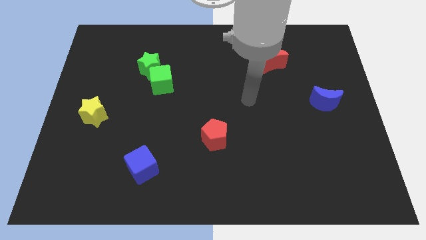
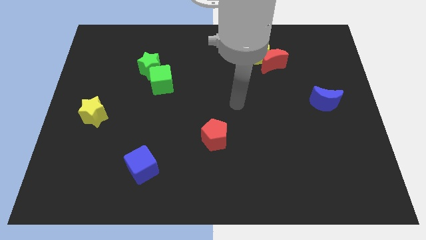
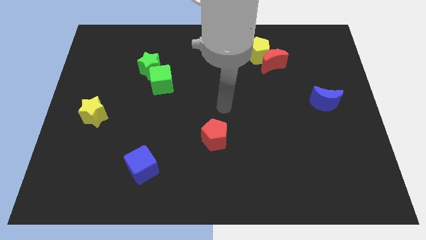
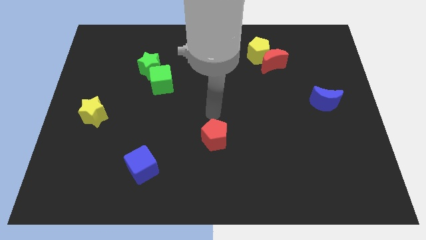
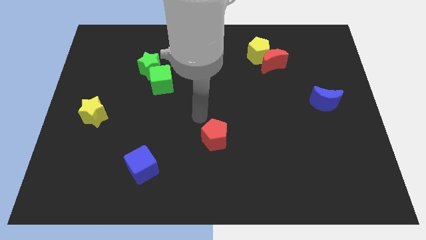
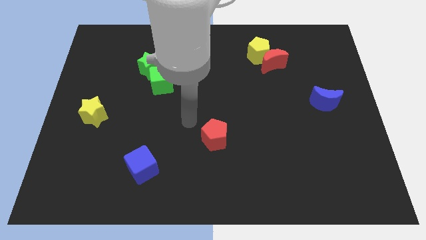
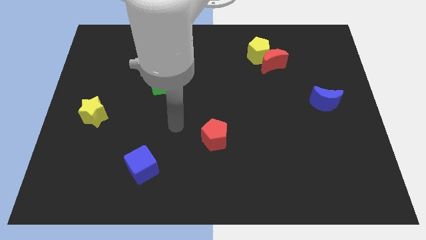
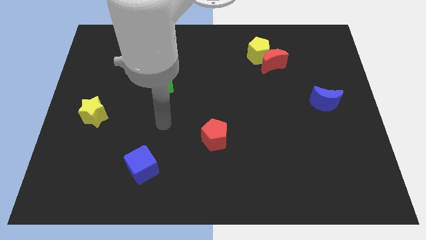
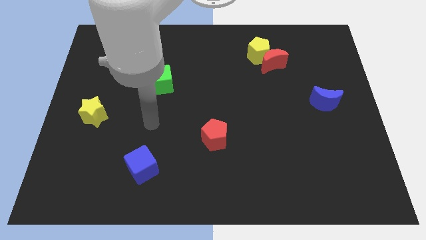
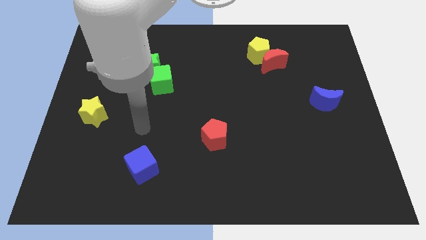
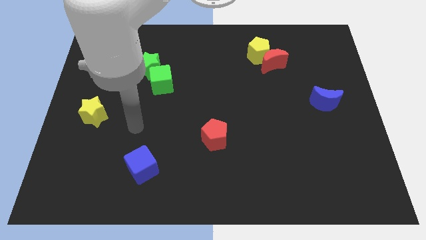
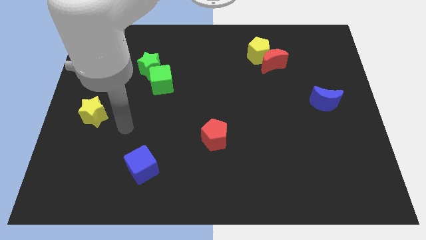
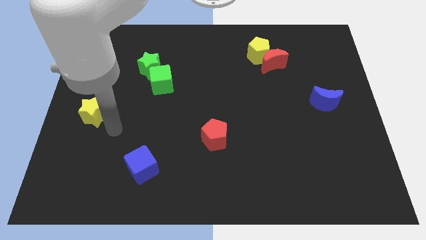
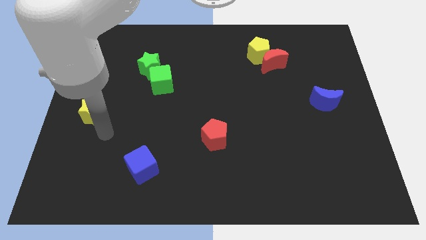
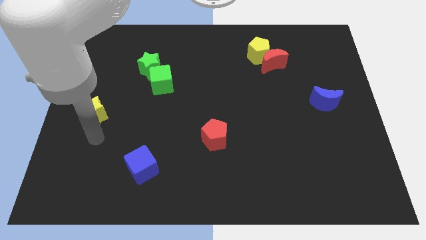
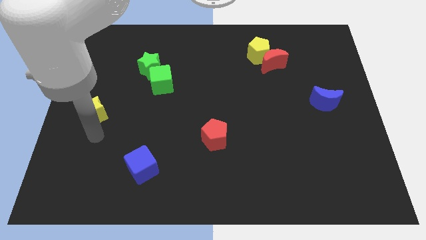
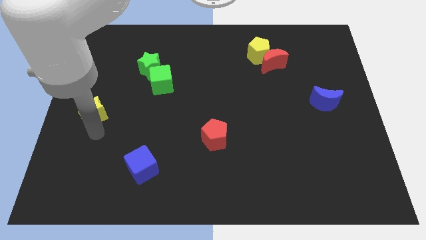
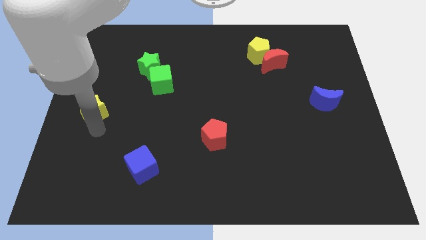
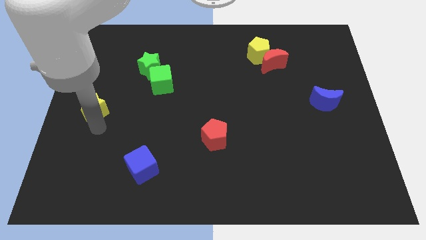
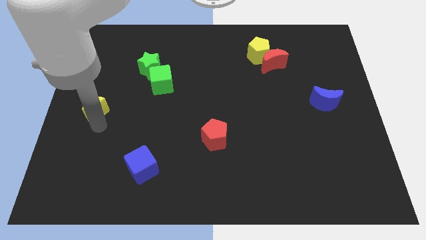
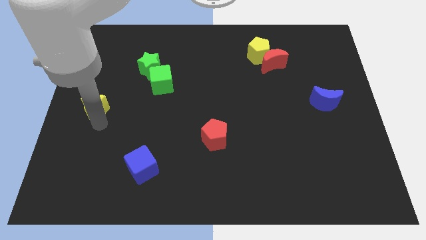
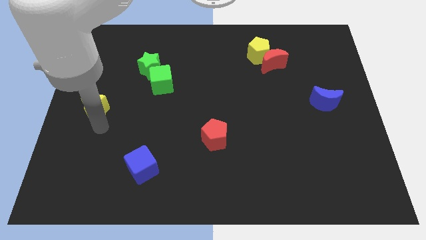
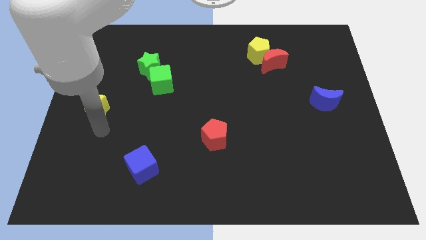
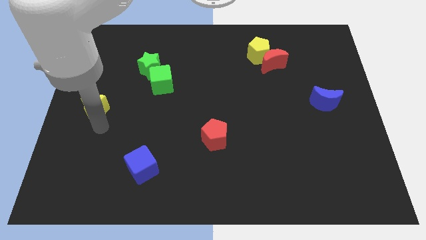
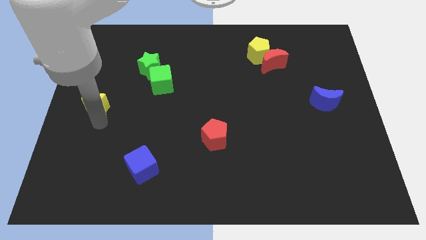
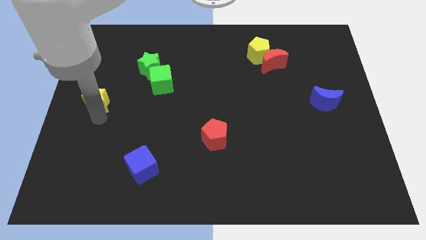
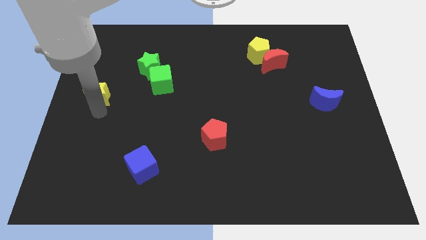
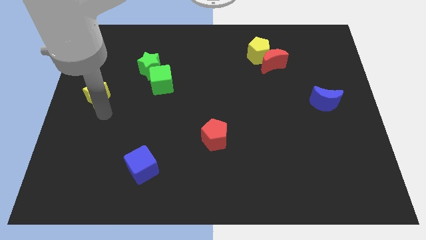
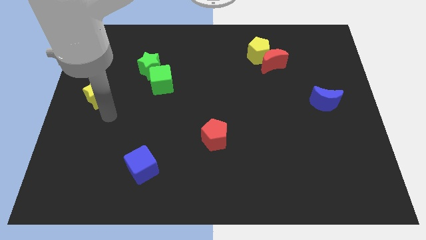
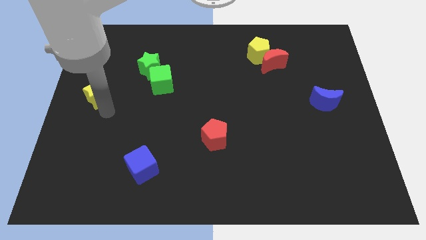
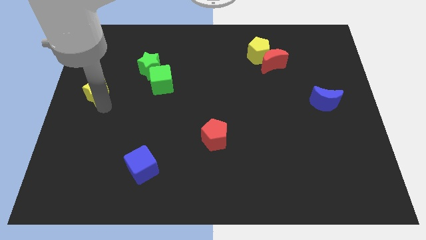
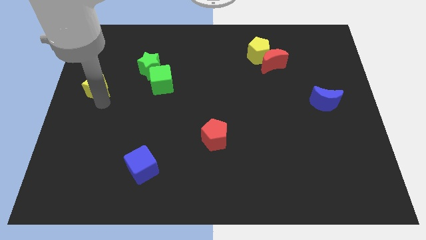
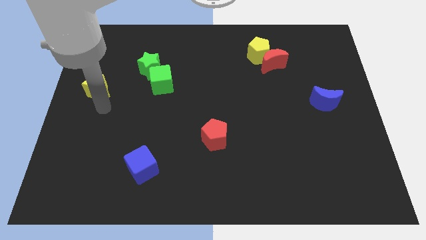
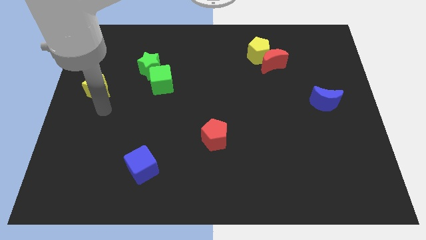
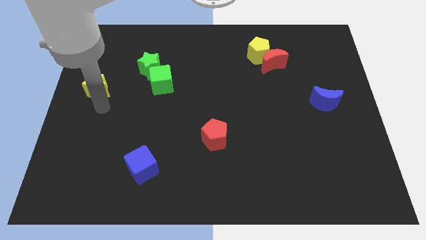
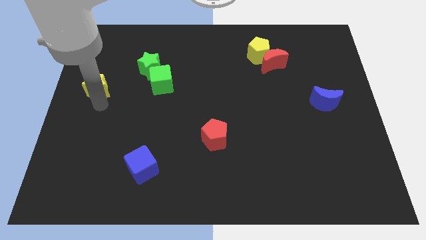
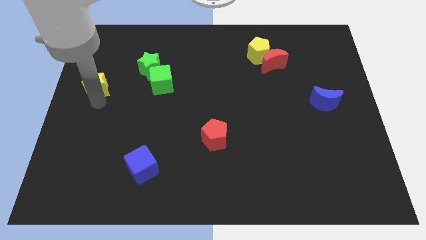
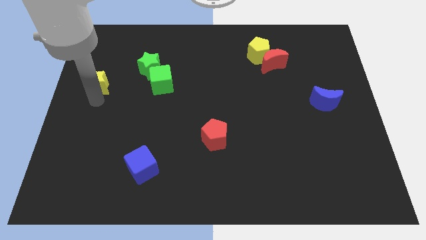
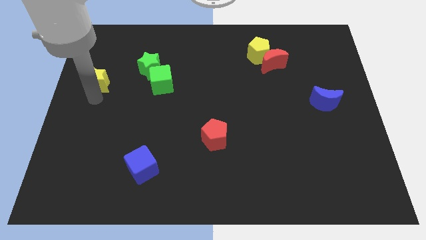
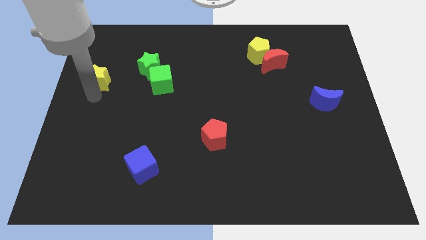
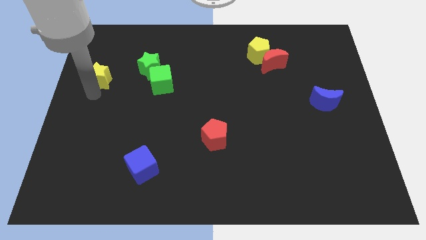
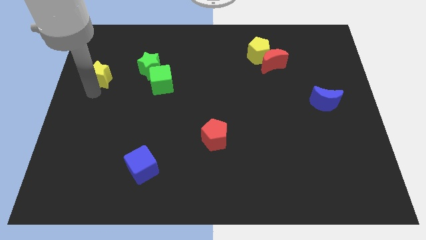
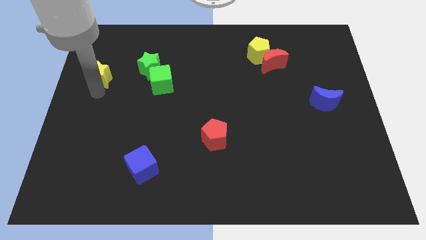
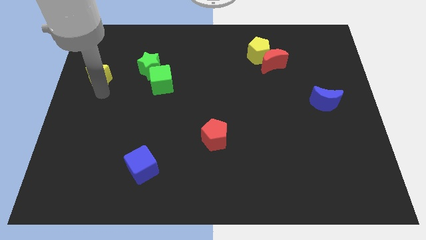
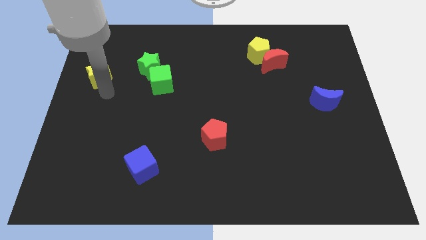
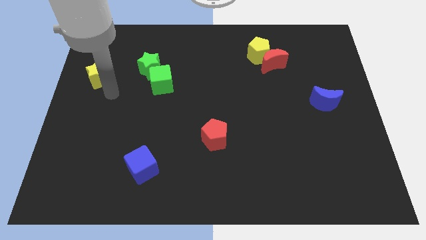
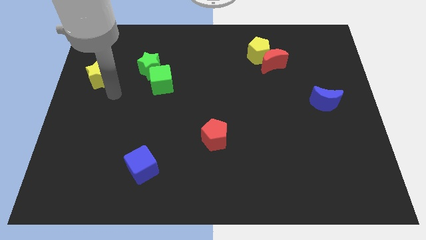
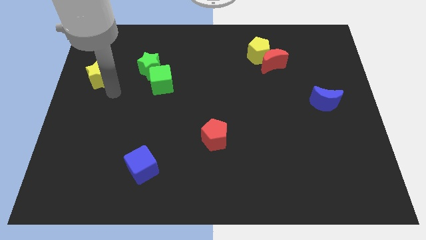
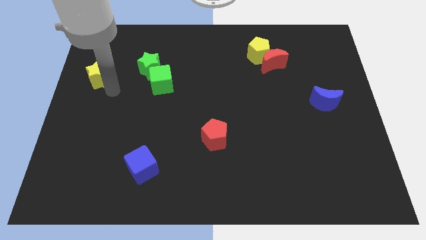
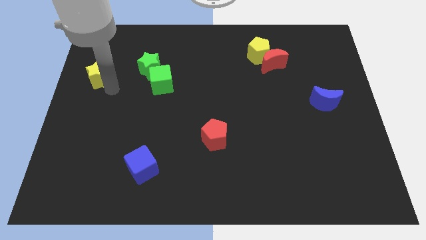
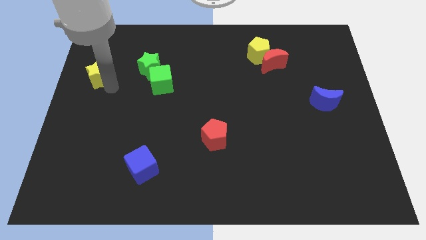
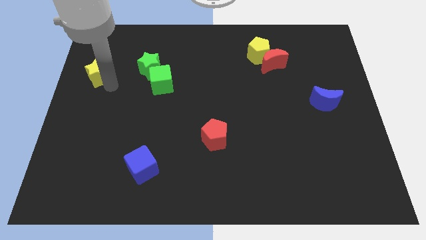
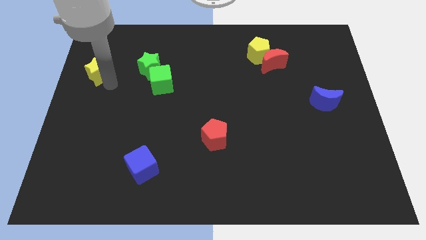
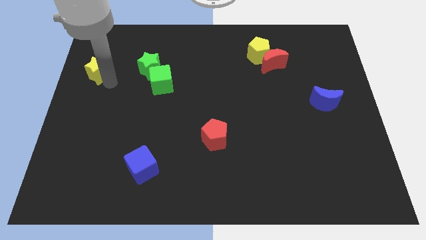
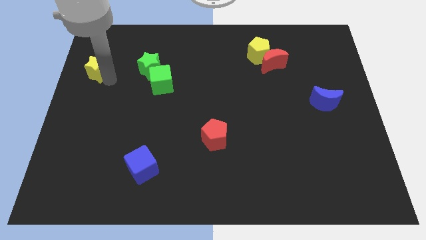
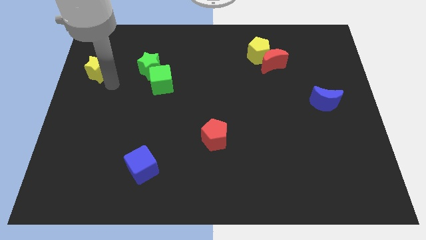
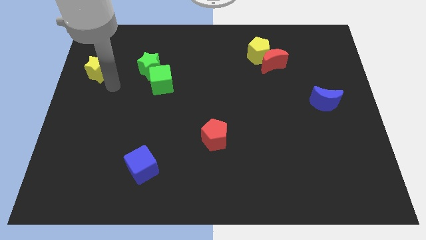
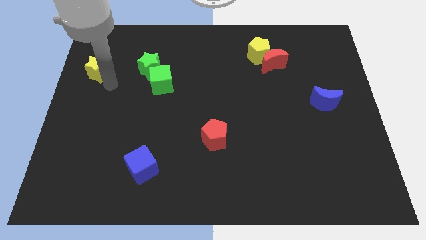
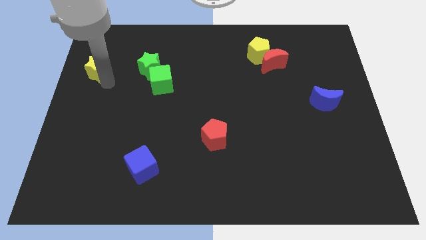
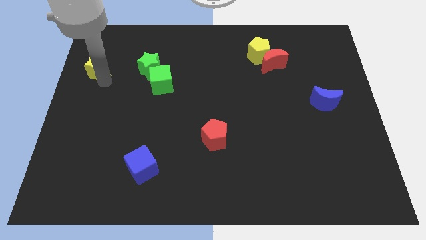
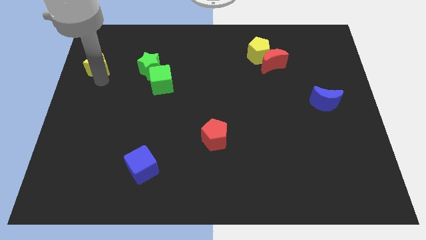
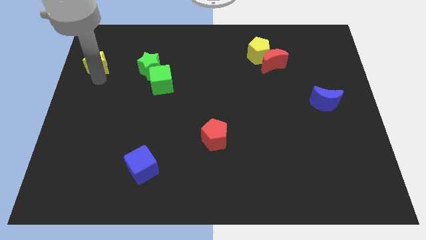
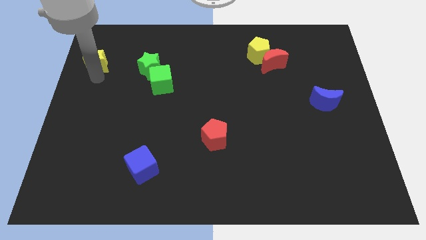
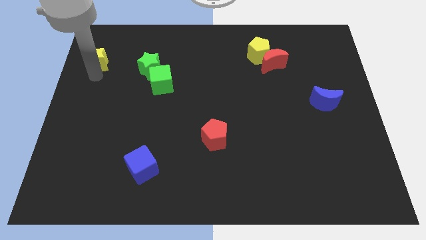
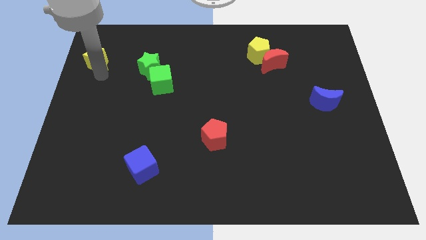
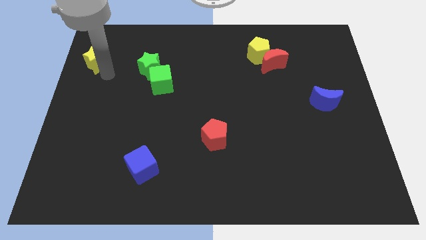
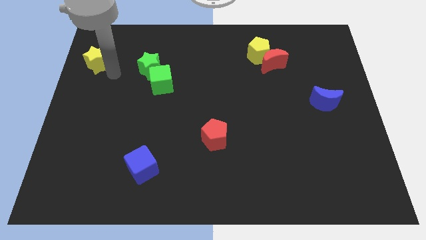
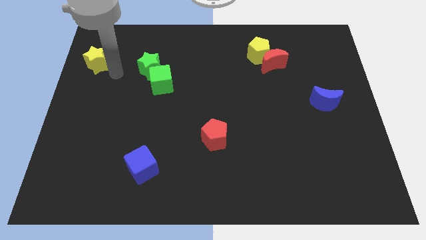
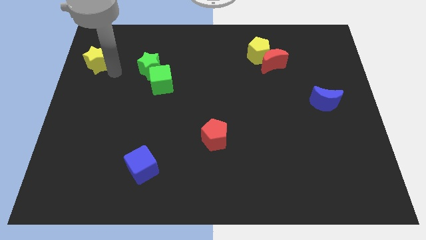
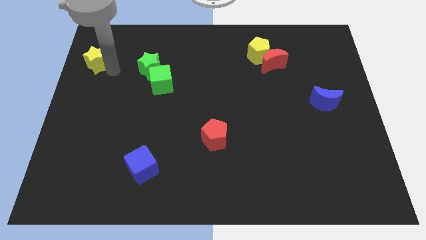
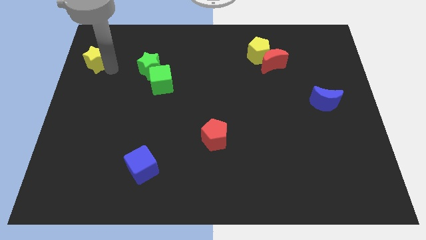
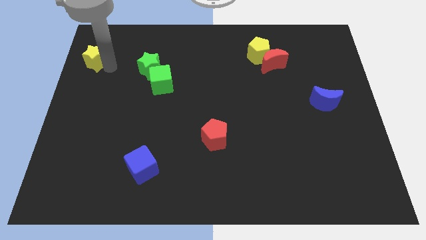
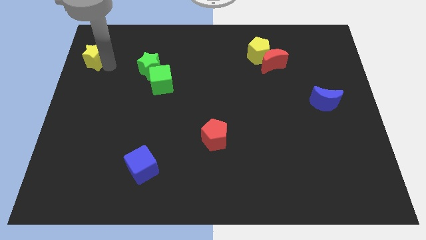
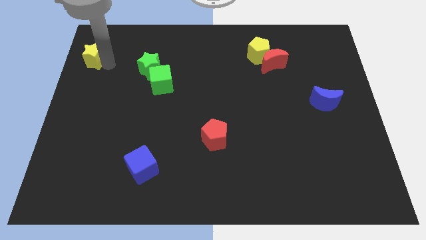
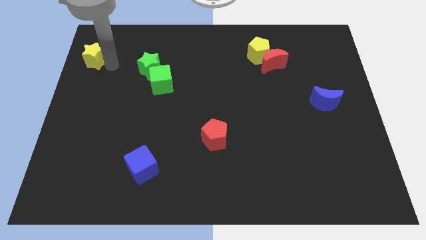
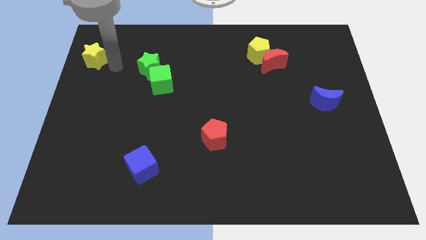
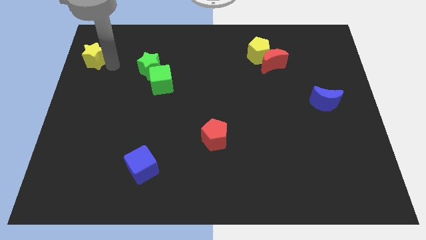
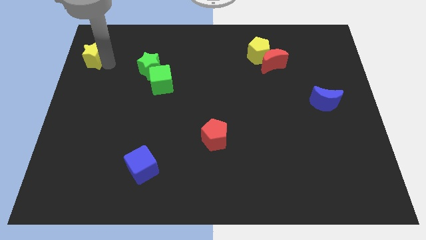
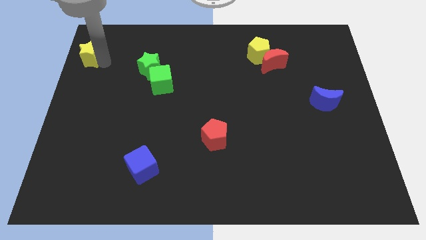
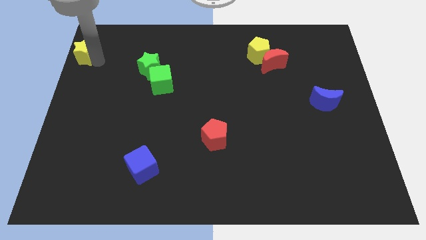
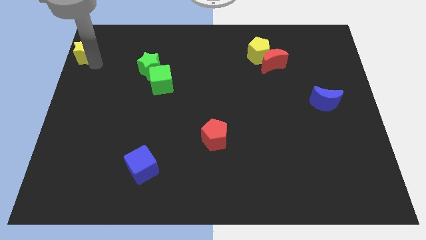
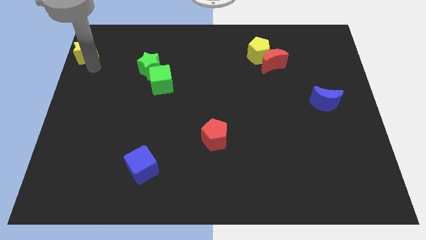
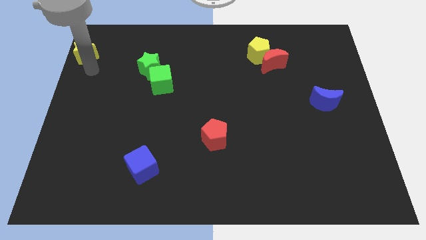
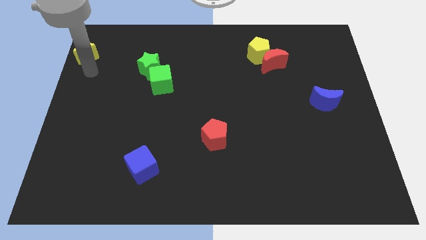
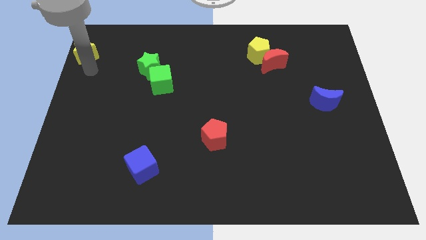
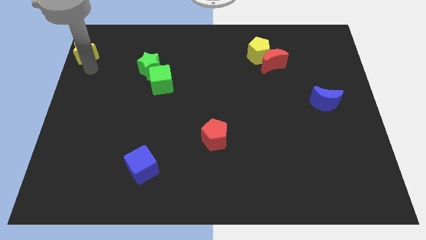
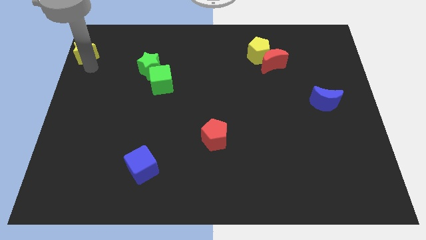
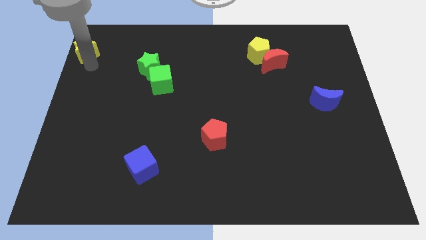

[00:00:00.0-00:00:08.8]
push the yellow star to the upper left corner
